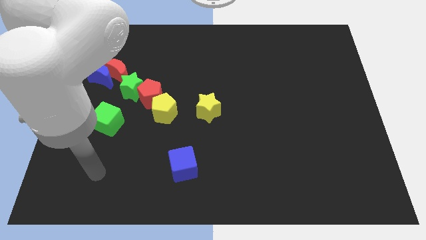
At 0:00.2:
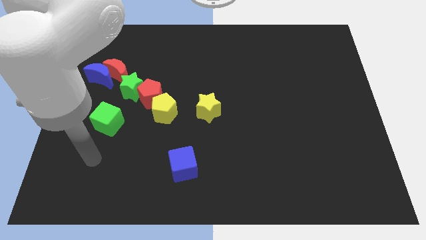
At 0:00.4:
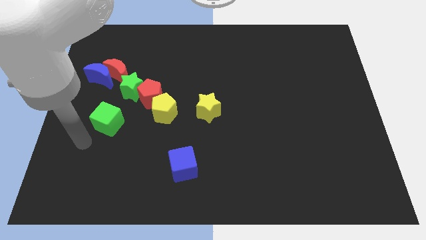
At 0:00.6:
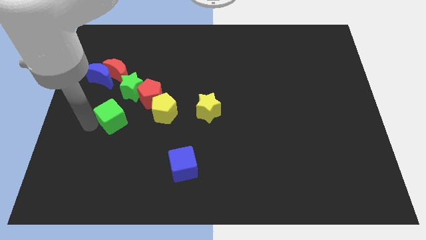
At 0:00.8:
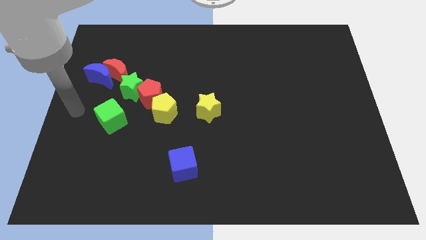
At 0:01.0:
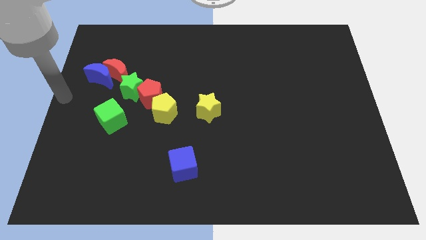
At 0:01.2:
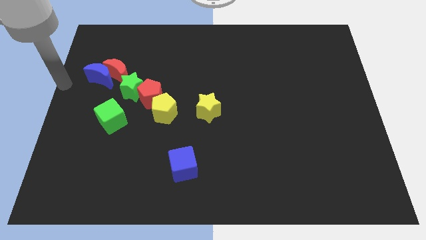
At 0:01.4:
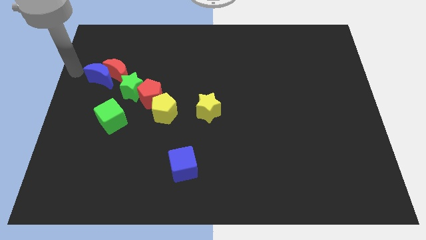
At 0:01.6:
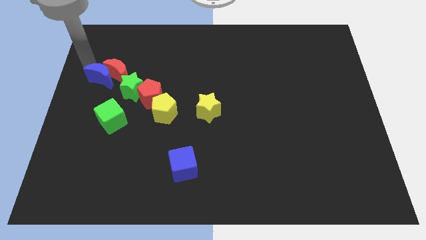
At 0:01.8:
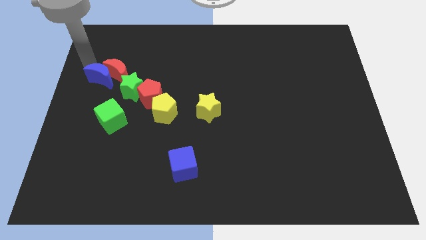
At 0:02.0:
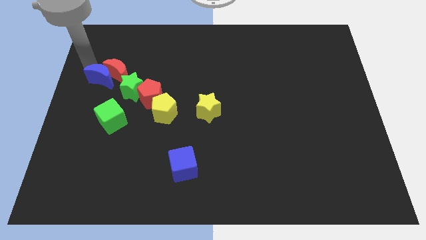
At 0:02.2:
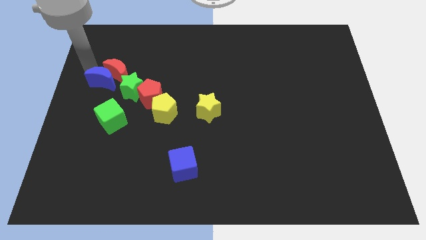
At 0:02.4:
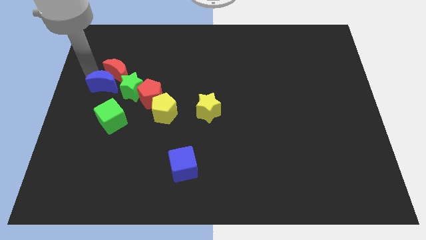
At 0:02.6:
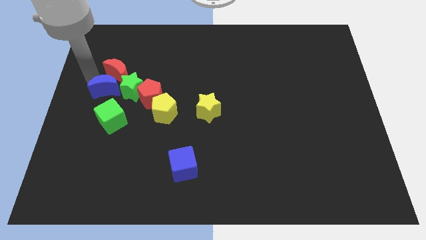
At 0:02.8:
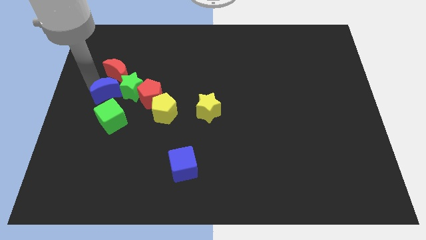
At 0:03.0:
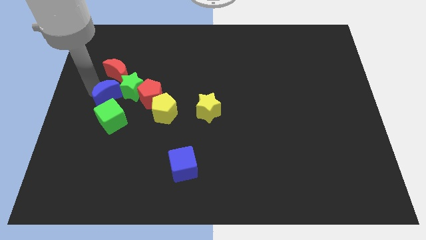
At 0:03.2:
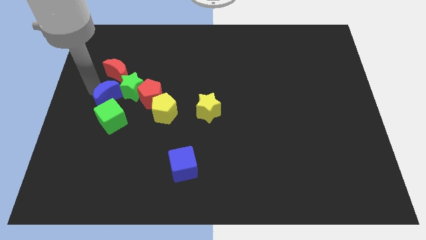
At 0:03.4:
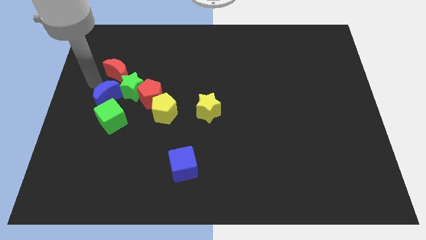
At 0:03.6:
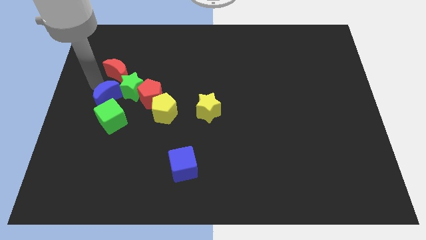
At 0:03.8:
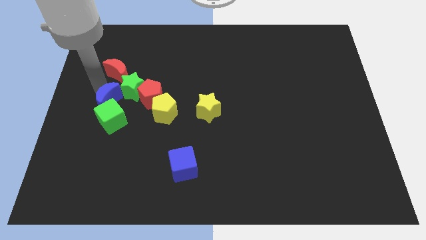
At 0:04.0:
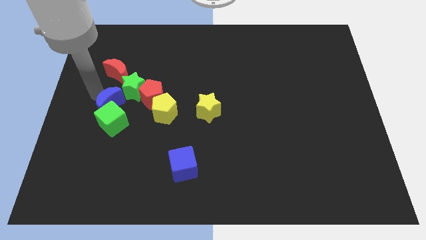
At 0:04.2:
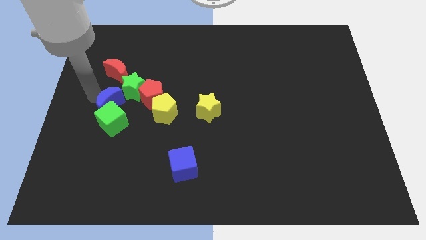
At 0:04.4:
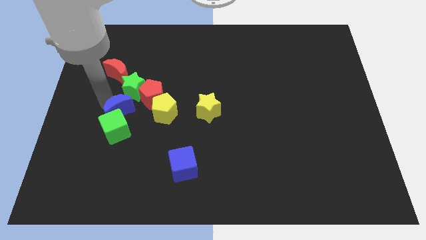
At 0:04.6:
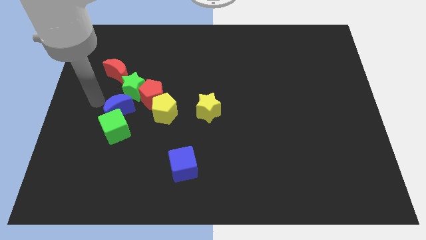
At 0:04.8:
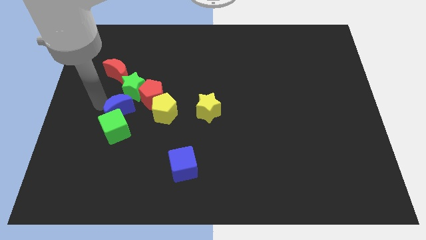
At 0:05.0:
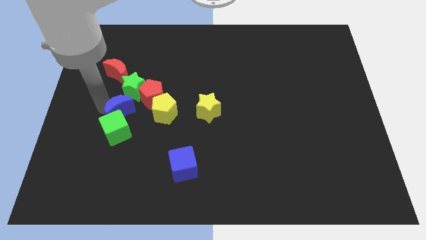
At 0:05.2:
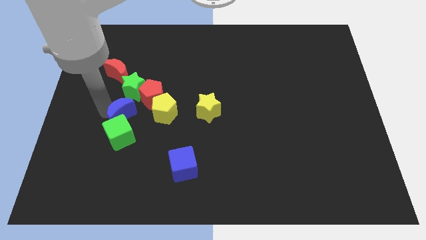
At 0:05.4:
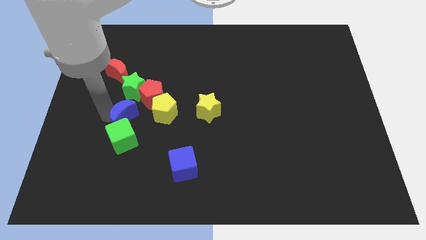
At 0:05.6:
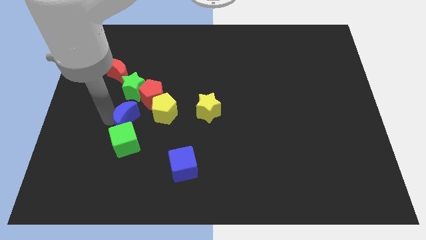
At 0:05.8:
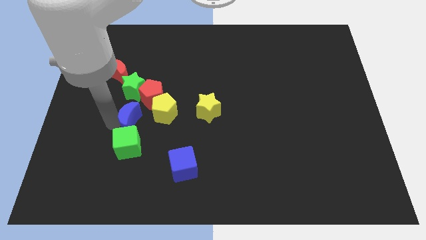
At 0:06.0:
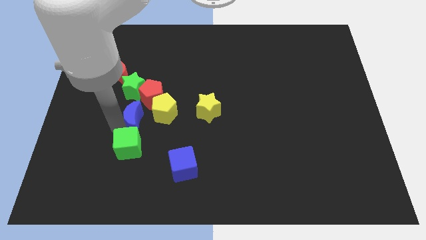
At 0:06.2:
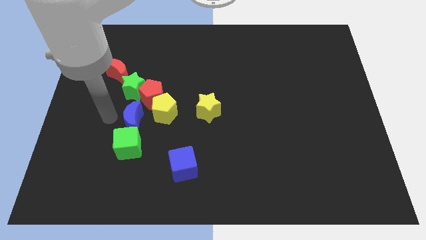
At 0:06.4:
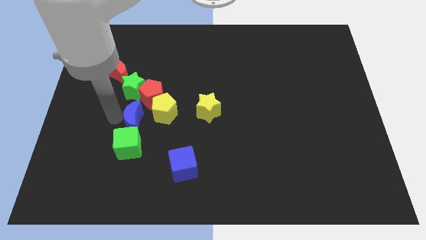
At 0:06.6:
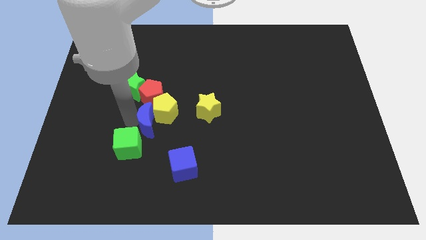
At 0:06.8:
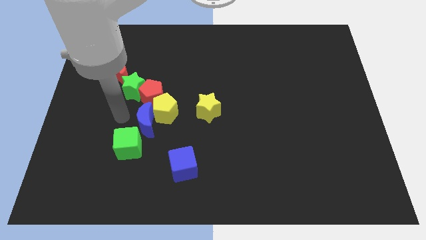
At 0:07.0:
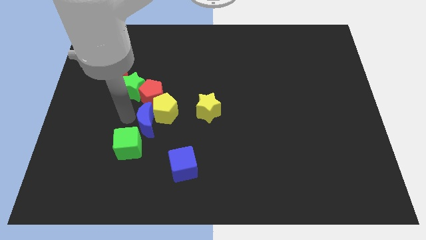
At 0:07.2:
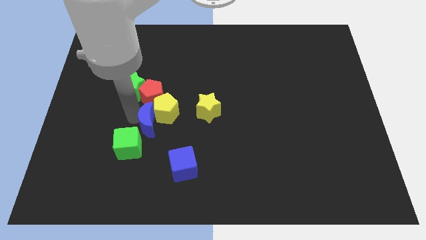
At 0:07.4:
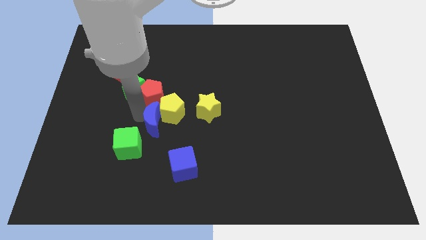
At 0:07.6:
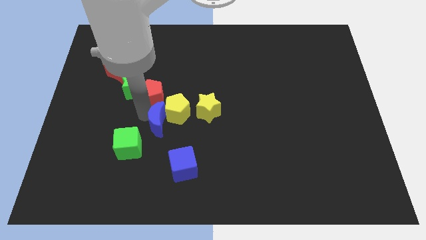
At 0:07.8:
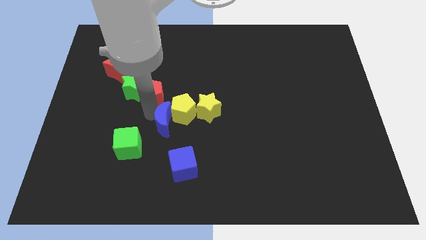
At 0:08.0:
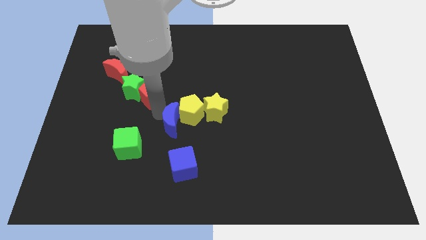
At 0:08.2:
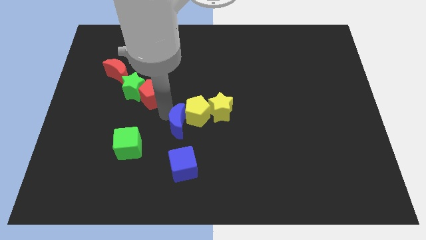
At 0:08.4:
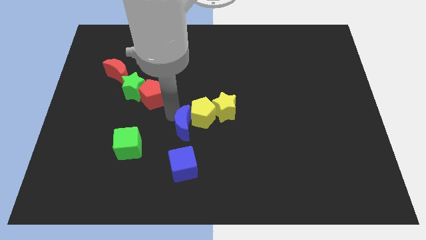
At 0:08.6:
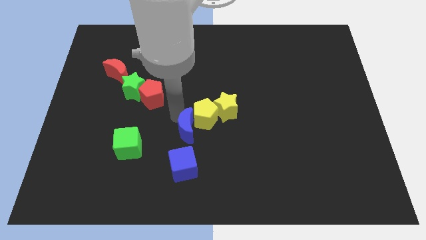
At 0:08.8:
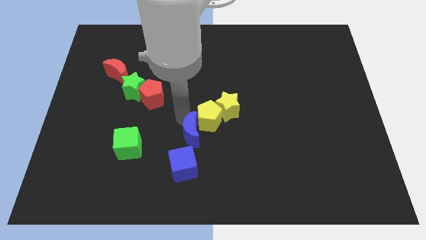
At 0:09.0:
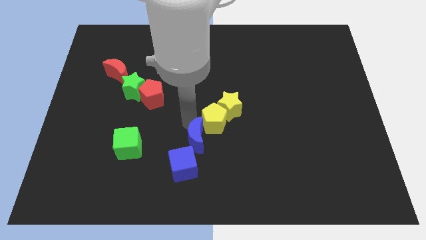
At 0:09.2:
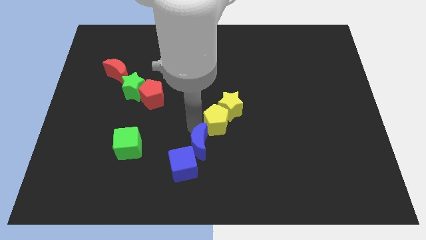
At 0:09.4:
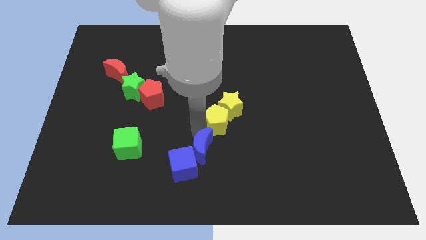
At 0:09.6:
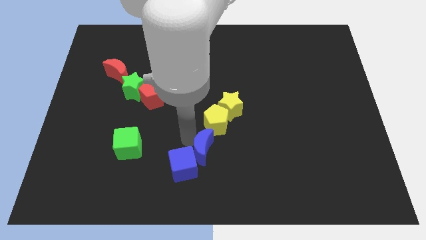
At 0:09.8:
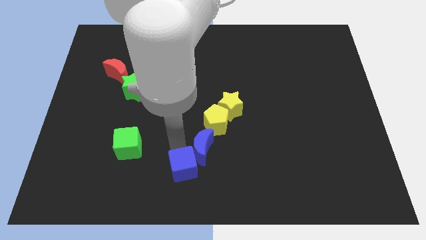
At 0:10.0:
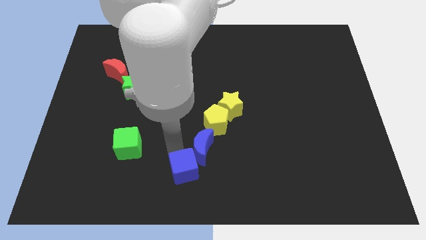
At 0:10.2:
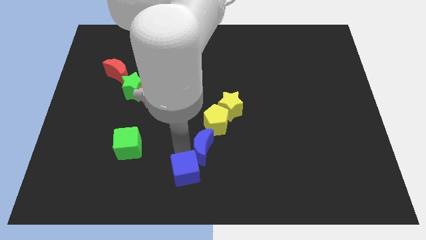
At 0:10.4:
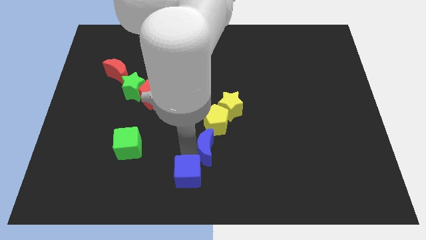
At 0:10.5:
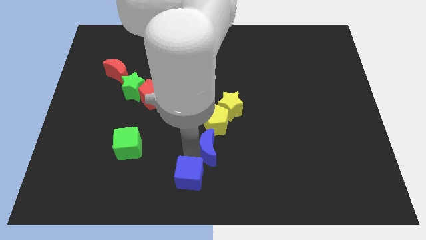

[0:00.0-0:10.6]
move the blue moon to the bottom of the yellow star

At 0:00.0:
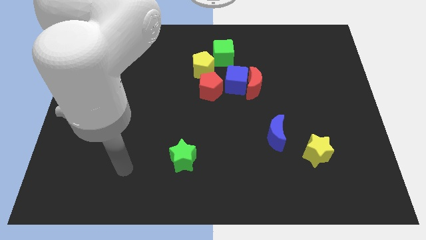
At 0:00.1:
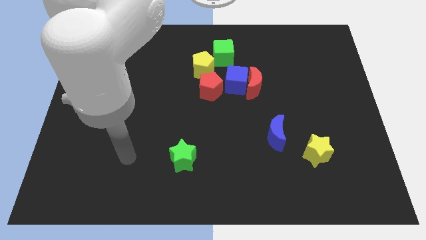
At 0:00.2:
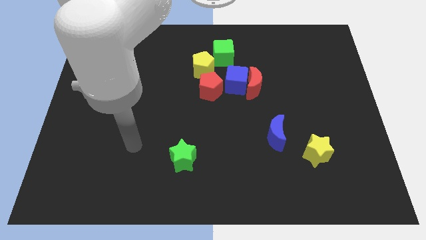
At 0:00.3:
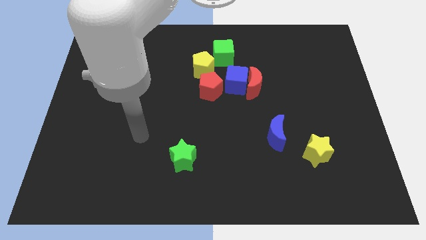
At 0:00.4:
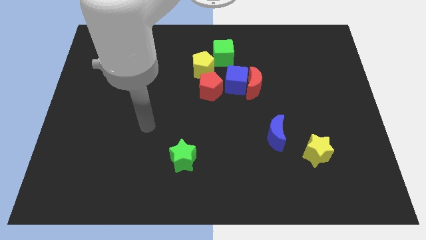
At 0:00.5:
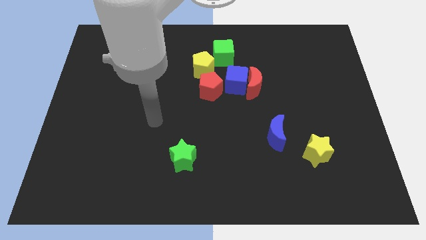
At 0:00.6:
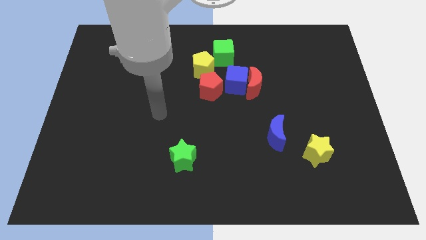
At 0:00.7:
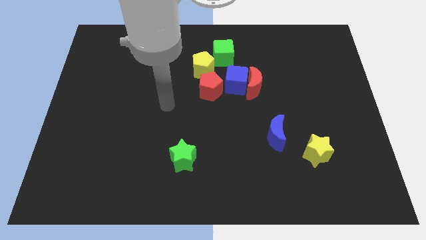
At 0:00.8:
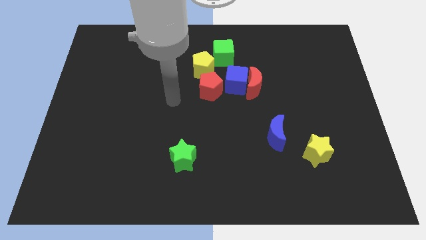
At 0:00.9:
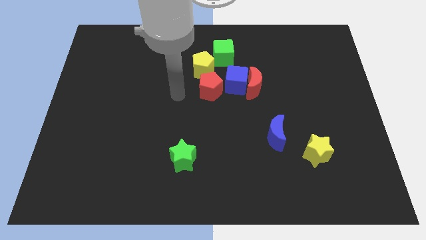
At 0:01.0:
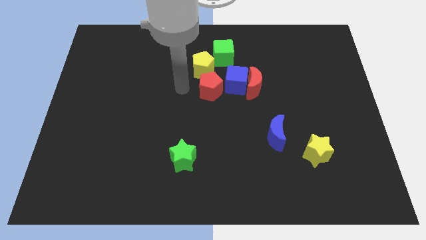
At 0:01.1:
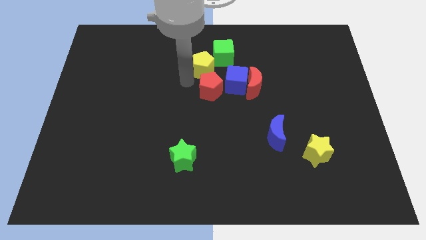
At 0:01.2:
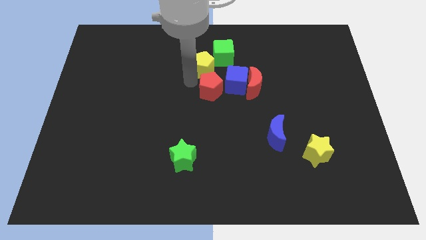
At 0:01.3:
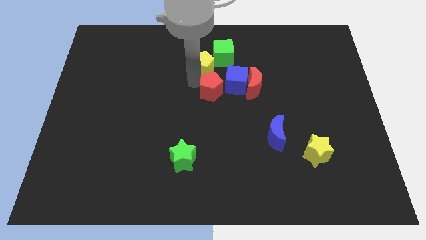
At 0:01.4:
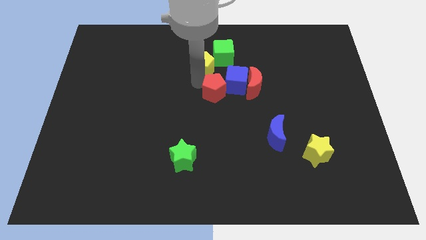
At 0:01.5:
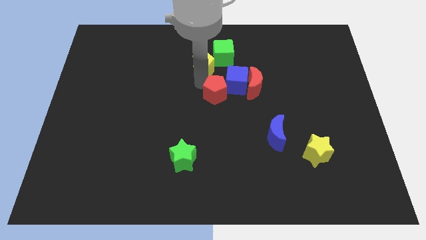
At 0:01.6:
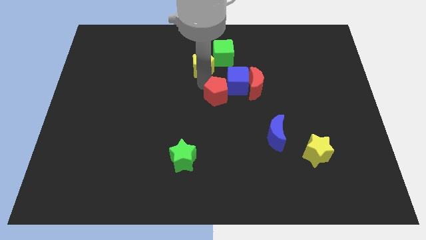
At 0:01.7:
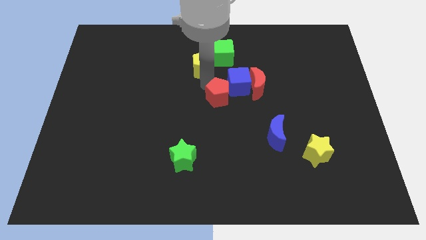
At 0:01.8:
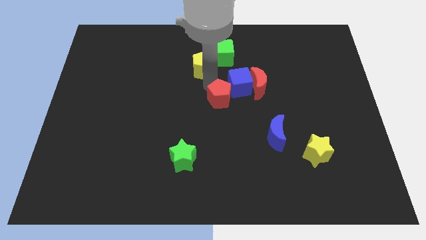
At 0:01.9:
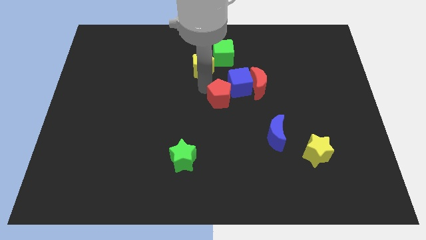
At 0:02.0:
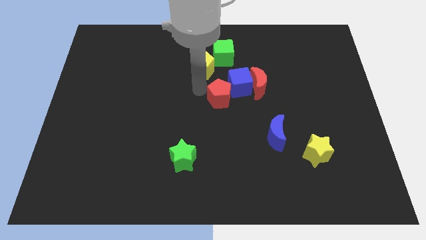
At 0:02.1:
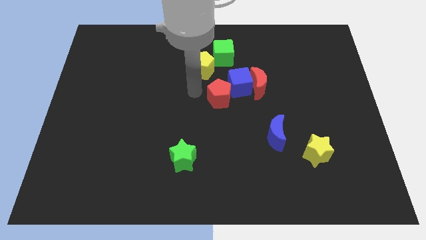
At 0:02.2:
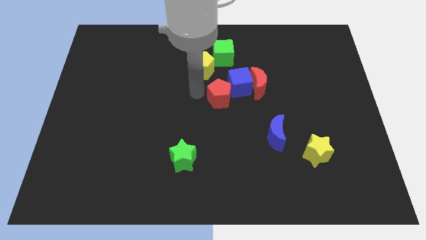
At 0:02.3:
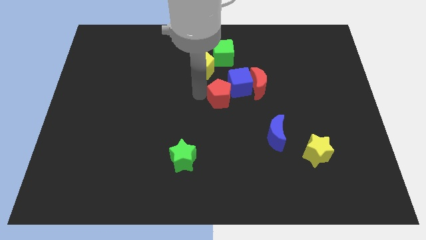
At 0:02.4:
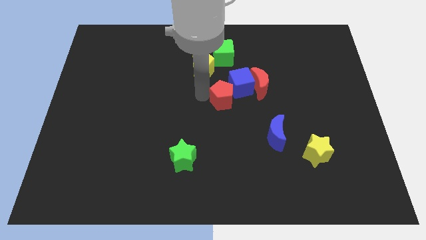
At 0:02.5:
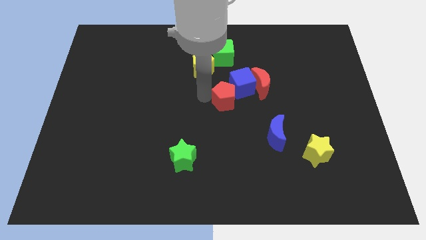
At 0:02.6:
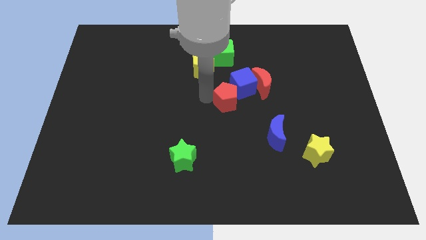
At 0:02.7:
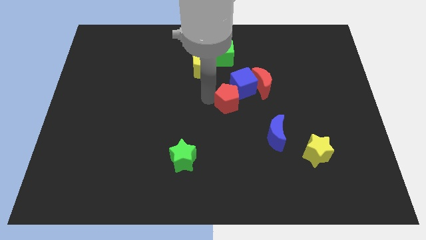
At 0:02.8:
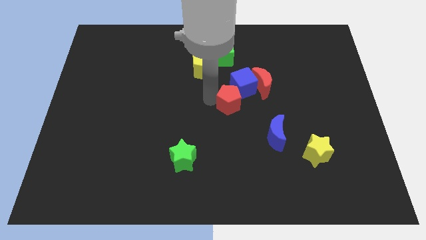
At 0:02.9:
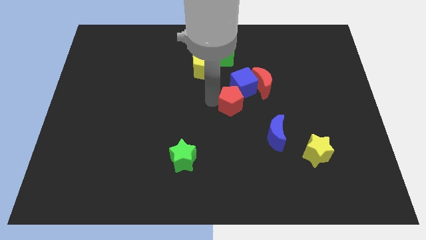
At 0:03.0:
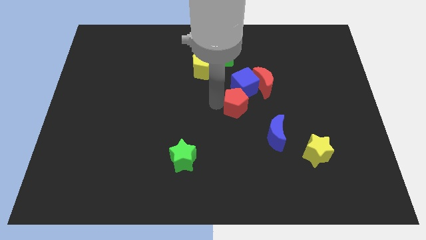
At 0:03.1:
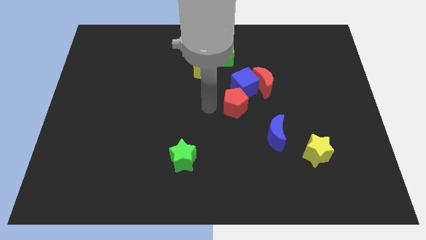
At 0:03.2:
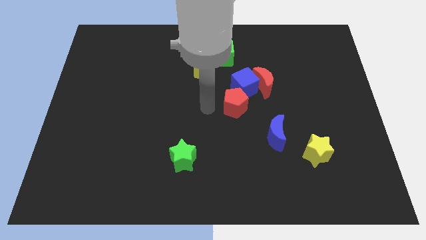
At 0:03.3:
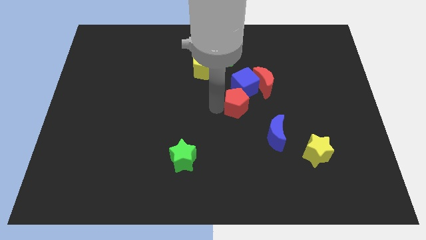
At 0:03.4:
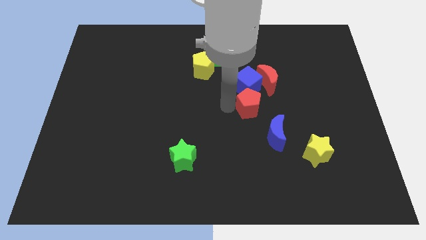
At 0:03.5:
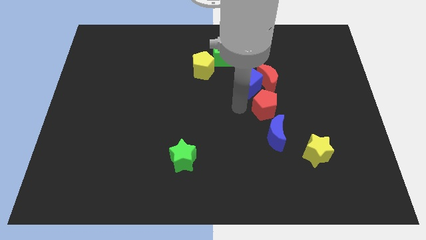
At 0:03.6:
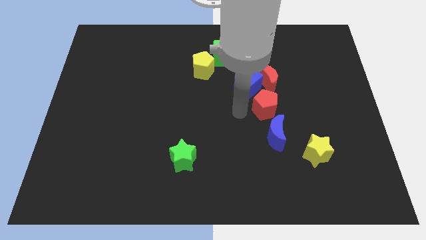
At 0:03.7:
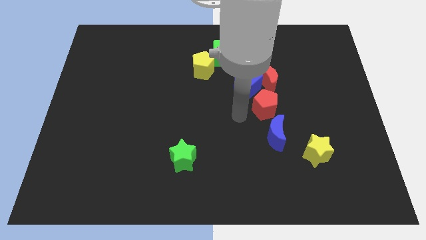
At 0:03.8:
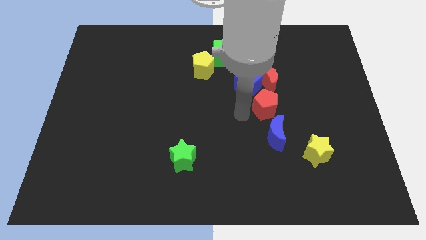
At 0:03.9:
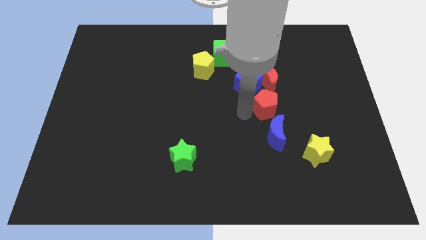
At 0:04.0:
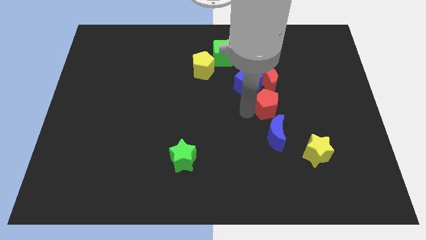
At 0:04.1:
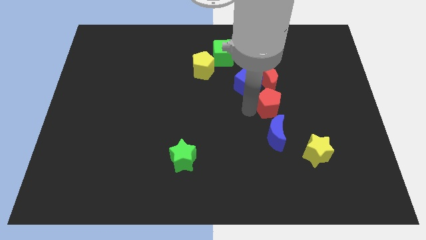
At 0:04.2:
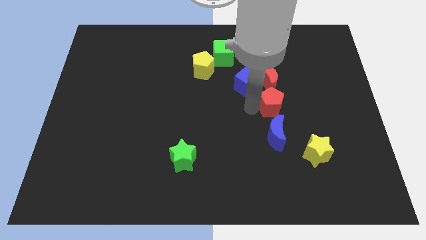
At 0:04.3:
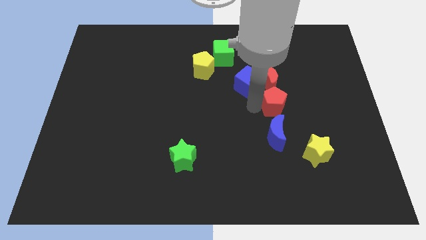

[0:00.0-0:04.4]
slide the red pentagon to the bottom right side of the red moon
